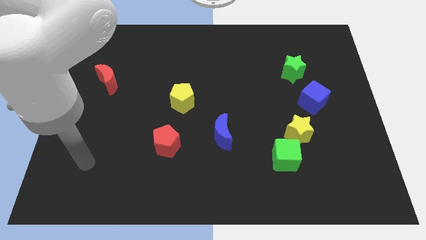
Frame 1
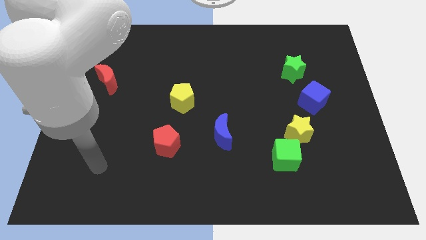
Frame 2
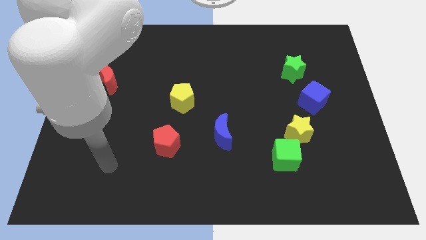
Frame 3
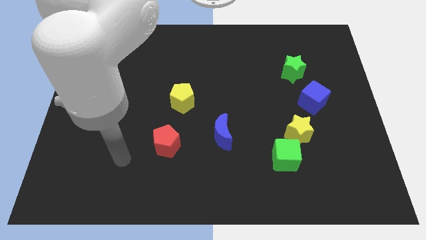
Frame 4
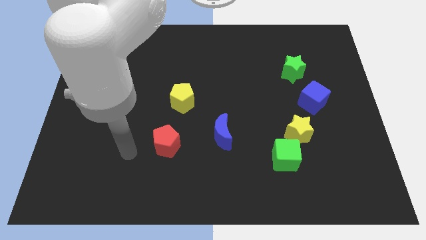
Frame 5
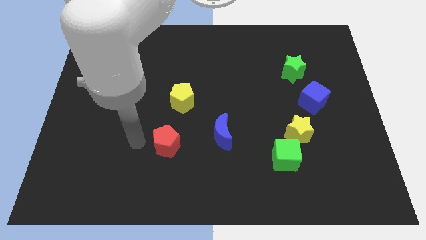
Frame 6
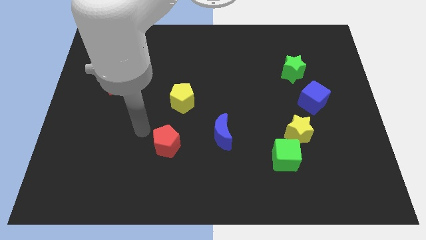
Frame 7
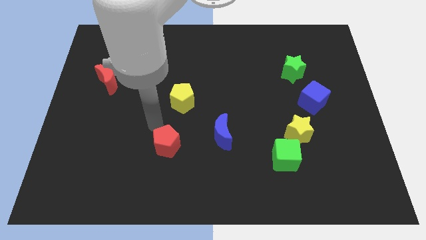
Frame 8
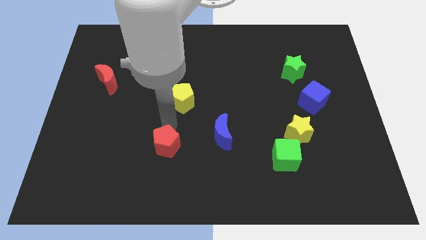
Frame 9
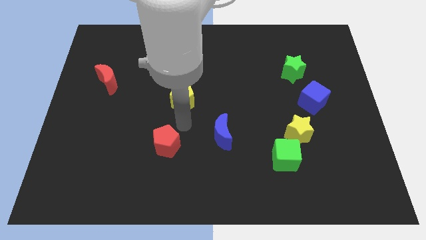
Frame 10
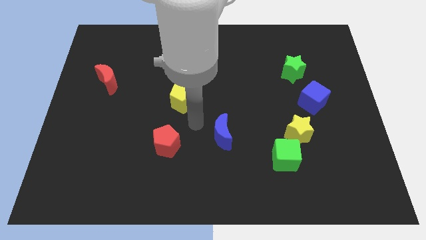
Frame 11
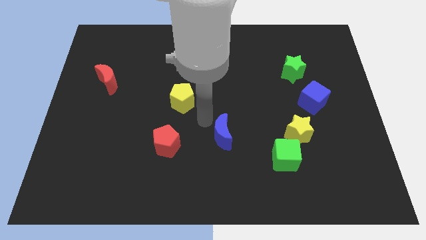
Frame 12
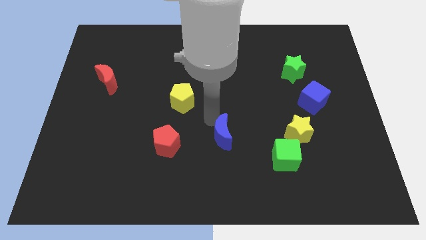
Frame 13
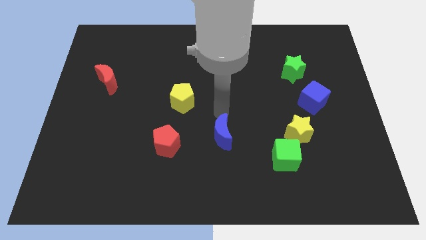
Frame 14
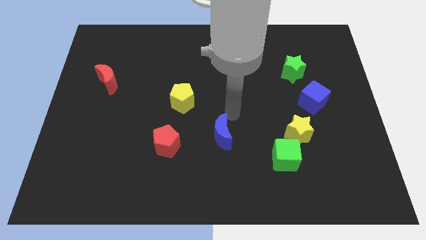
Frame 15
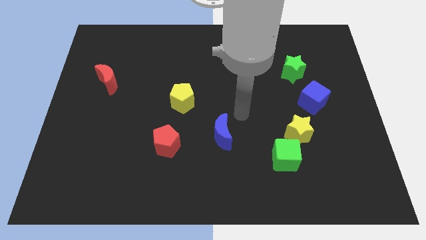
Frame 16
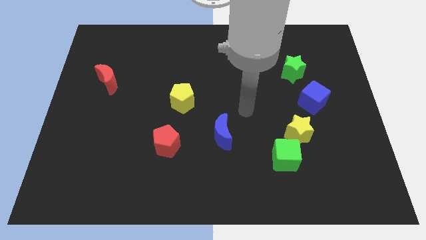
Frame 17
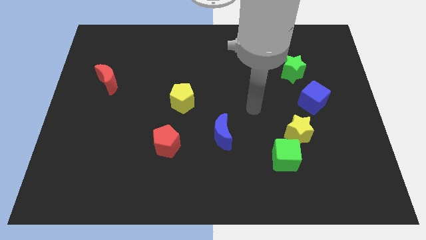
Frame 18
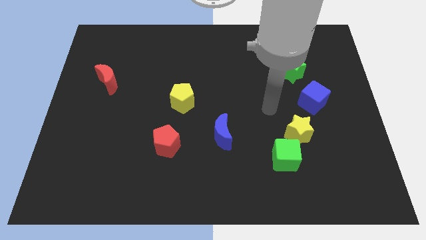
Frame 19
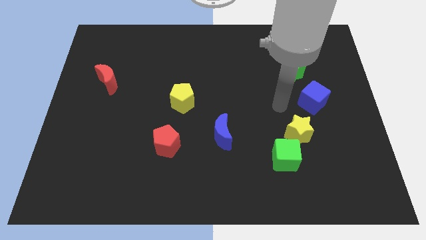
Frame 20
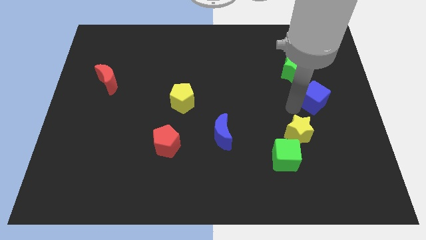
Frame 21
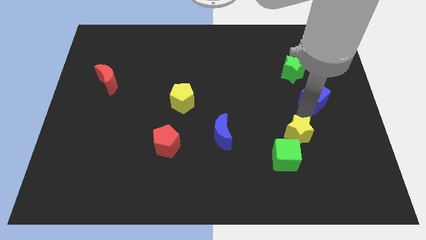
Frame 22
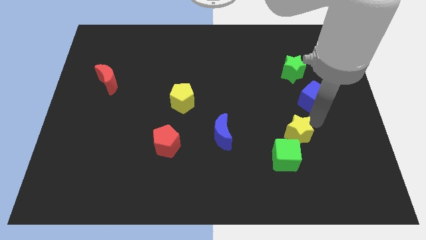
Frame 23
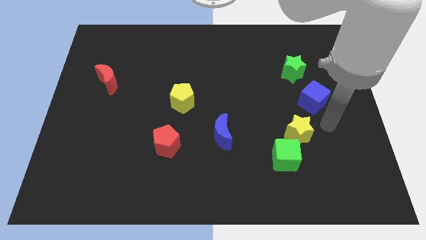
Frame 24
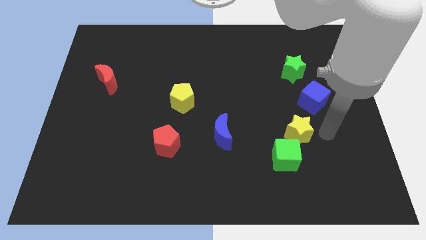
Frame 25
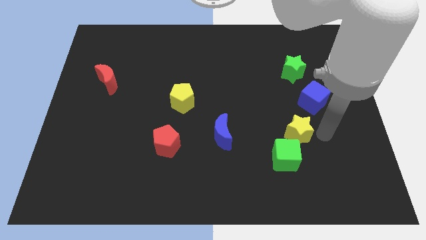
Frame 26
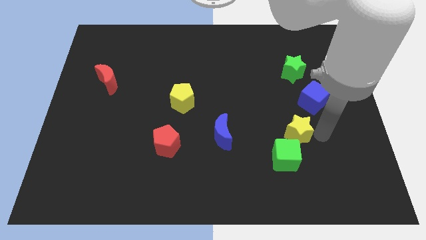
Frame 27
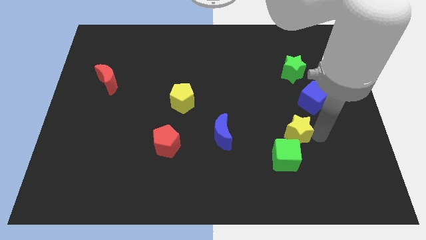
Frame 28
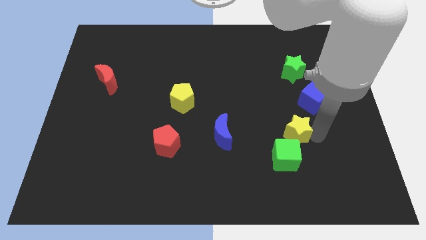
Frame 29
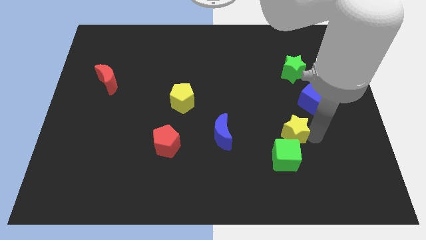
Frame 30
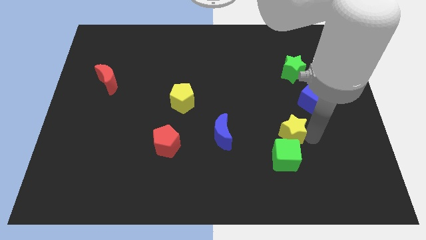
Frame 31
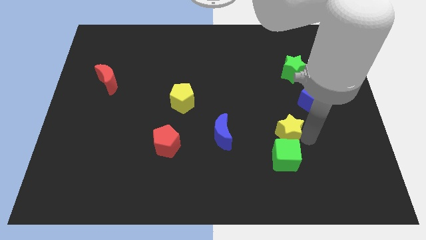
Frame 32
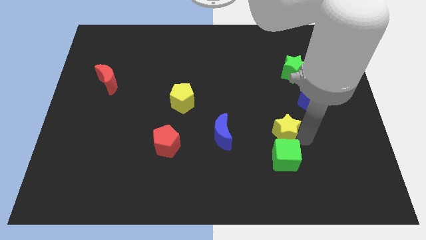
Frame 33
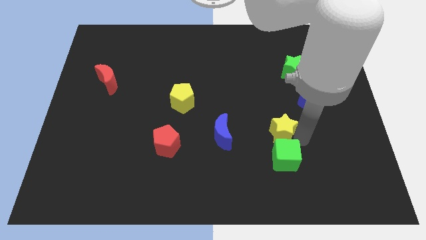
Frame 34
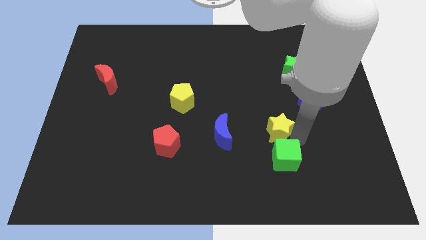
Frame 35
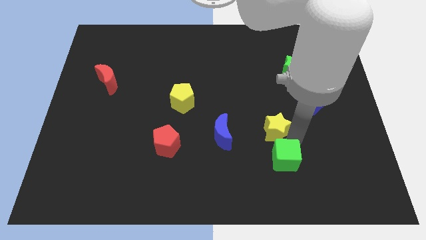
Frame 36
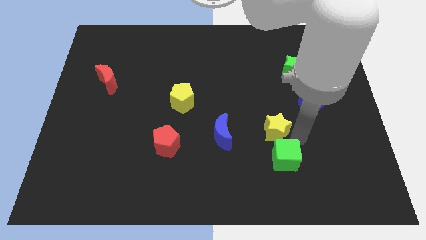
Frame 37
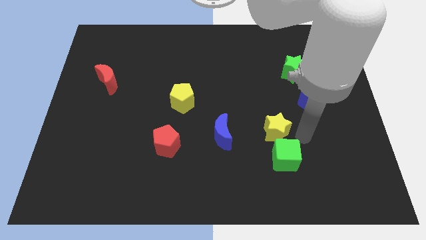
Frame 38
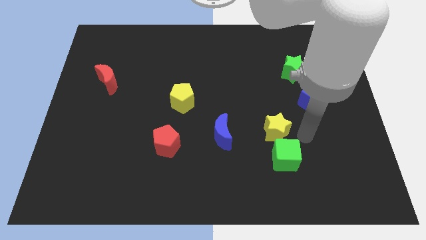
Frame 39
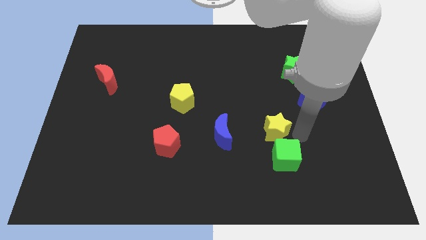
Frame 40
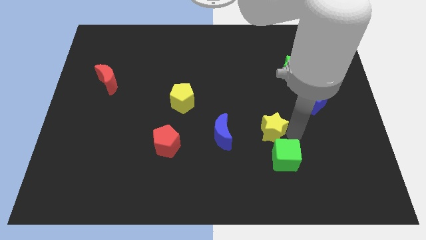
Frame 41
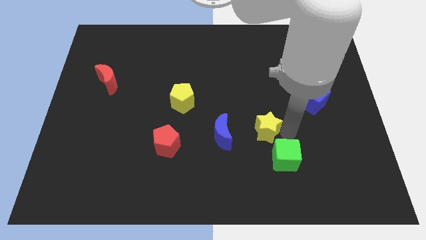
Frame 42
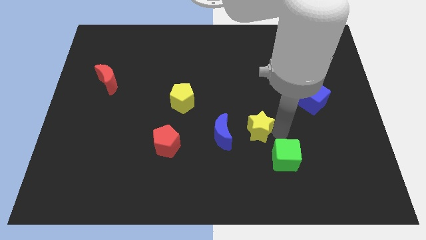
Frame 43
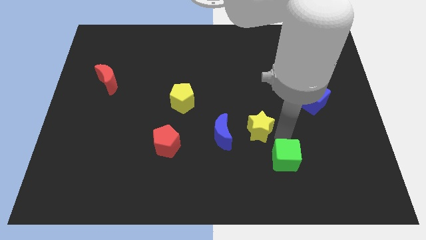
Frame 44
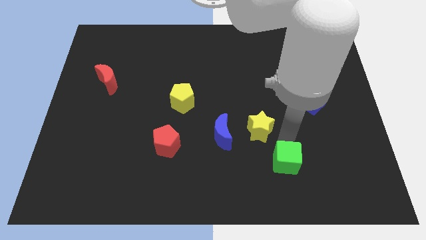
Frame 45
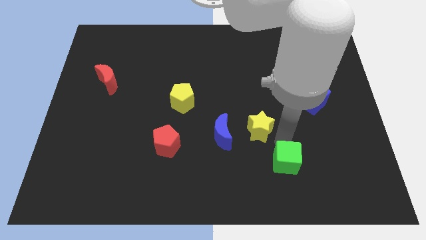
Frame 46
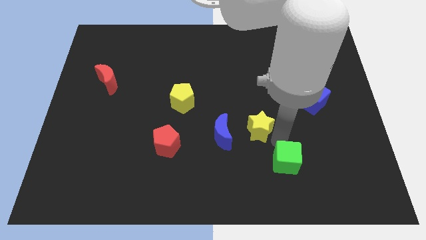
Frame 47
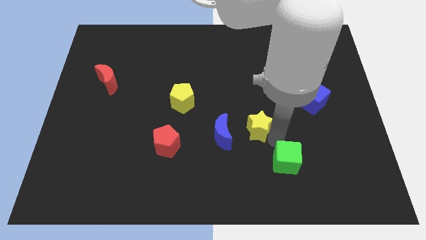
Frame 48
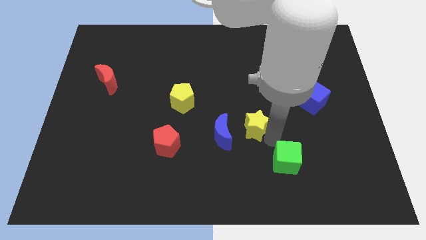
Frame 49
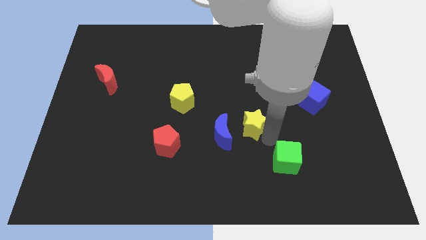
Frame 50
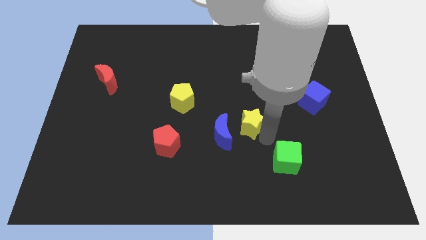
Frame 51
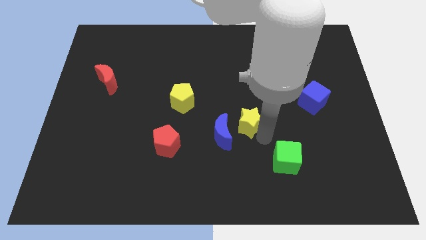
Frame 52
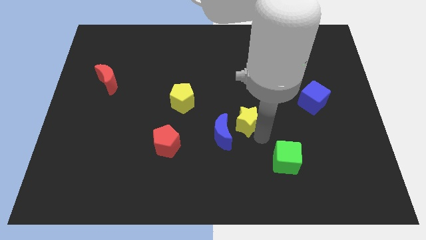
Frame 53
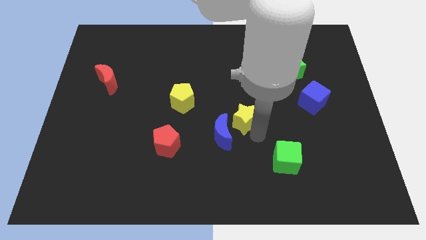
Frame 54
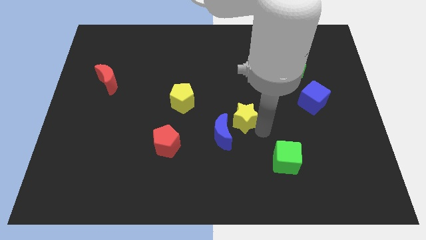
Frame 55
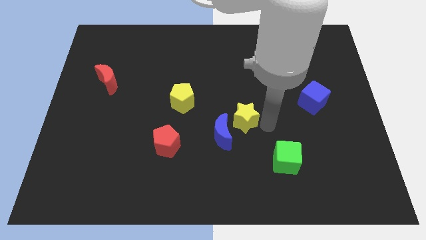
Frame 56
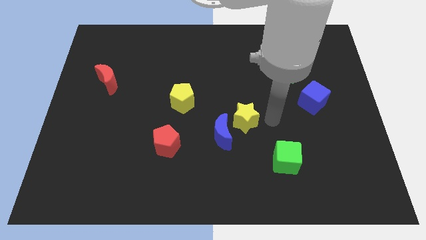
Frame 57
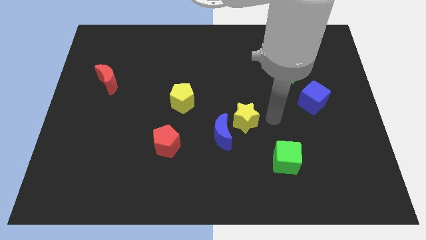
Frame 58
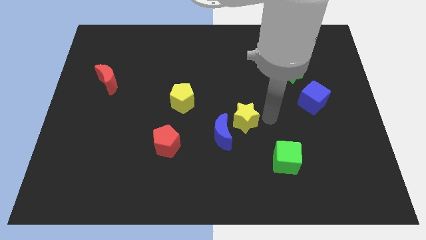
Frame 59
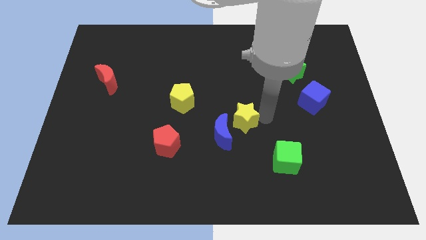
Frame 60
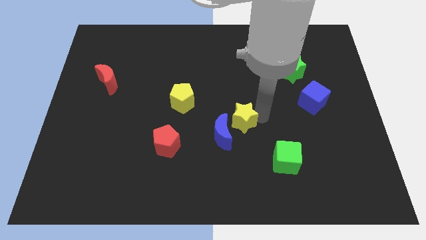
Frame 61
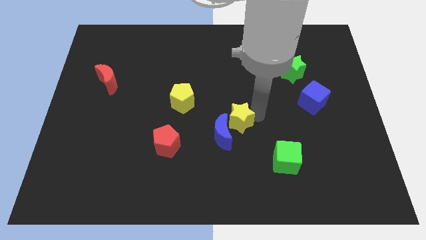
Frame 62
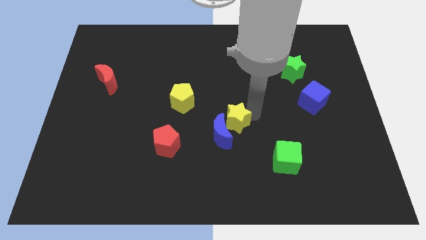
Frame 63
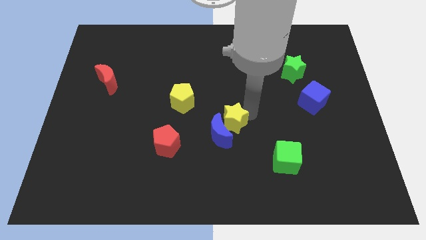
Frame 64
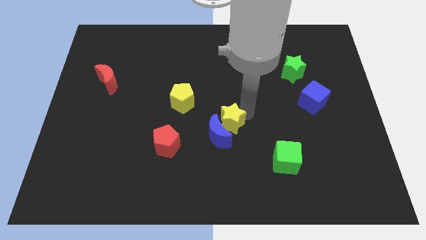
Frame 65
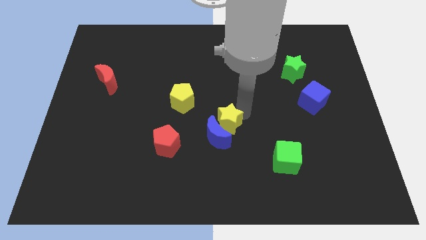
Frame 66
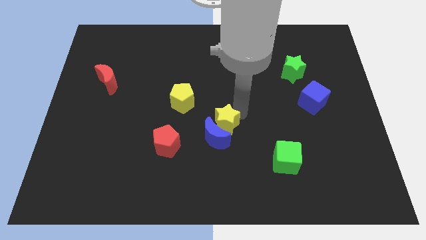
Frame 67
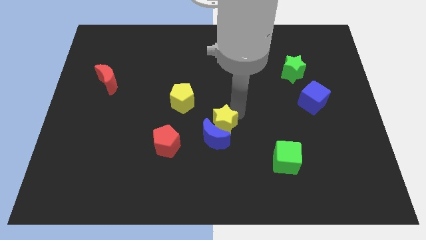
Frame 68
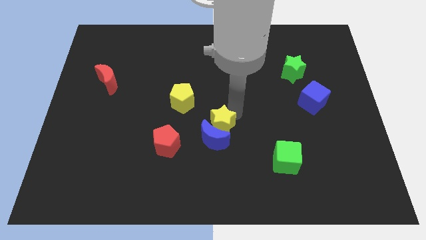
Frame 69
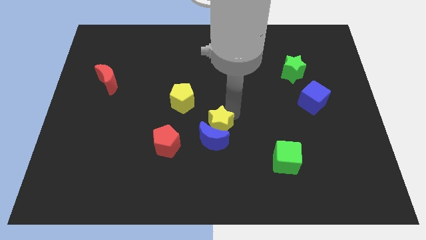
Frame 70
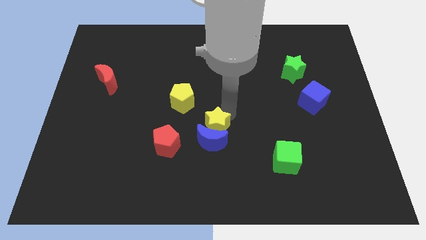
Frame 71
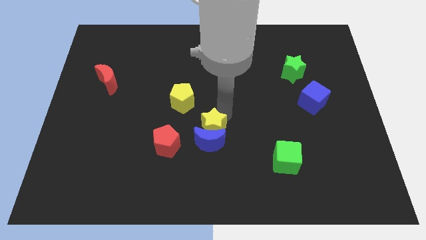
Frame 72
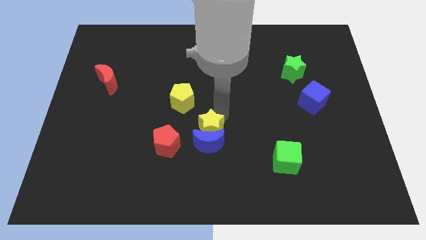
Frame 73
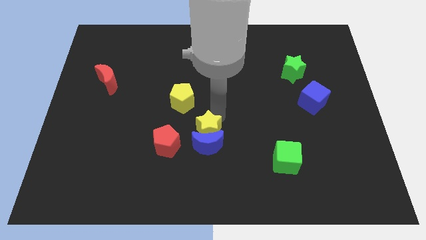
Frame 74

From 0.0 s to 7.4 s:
move the yellow star left

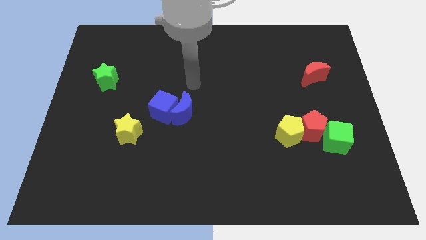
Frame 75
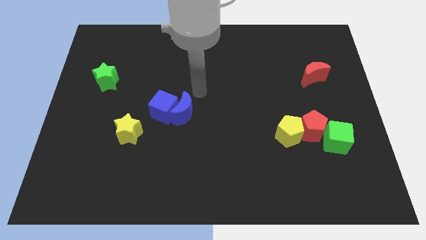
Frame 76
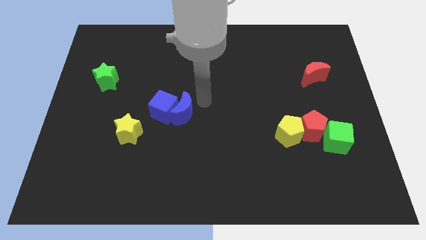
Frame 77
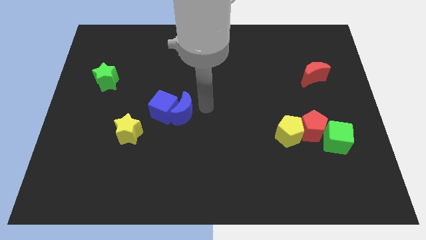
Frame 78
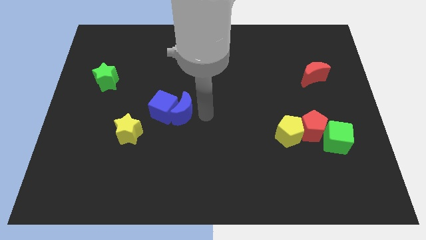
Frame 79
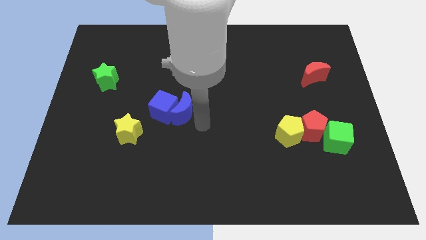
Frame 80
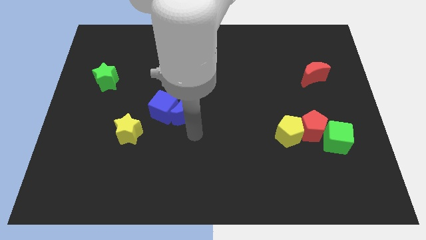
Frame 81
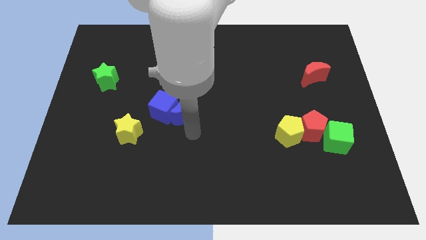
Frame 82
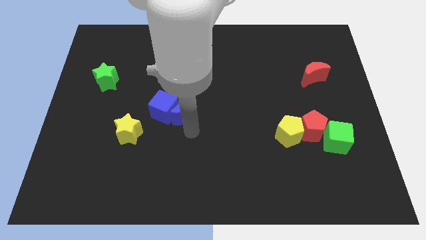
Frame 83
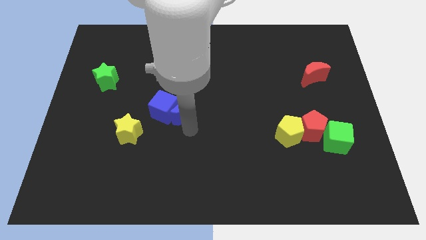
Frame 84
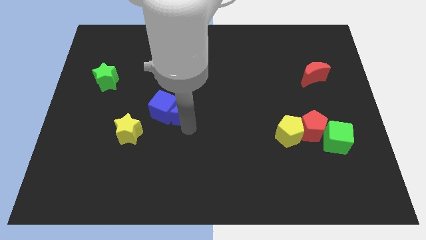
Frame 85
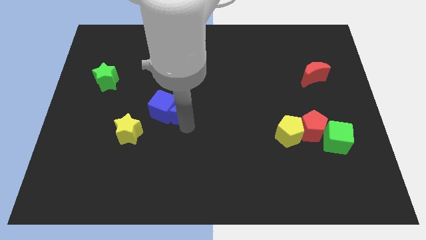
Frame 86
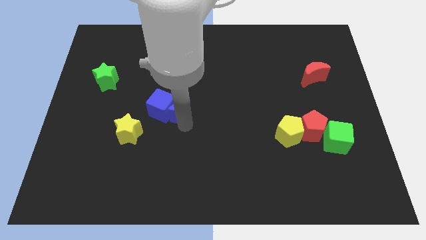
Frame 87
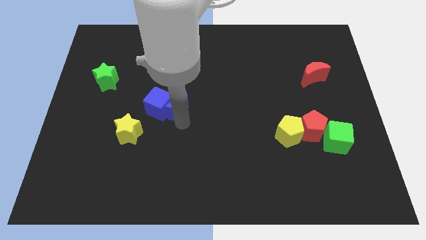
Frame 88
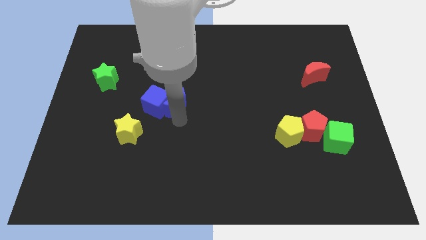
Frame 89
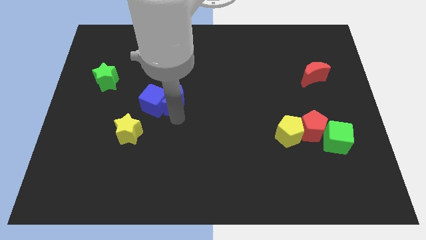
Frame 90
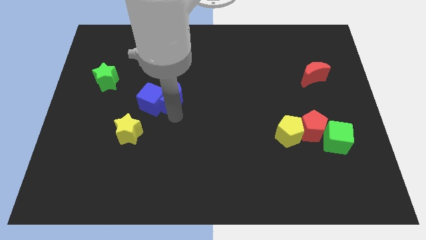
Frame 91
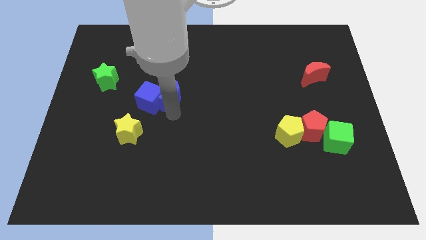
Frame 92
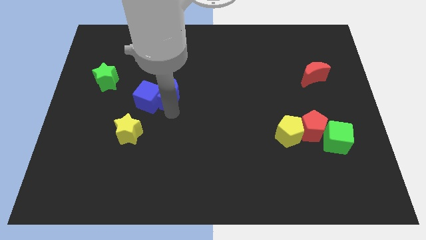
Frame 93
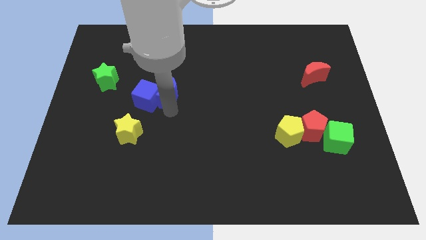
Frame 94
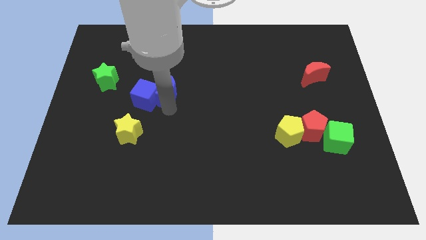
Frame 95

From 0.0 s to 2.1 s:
push the blue moon upwards and then left somewhat
